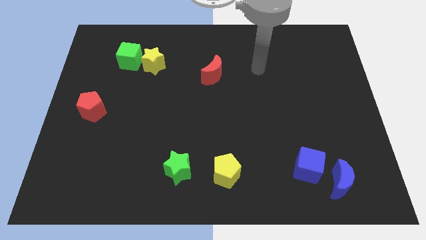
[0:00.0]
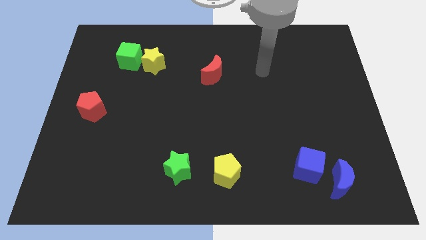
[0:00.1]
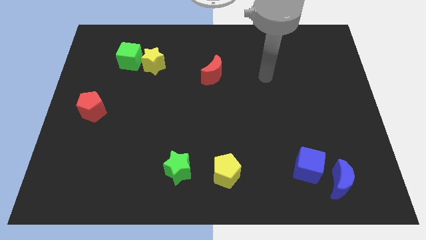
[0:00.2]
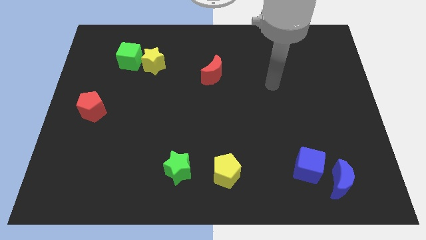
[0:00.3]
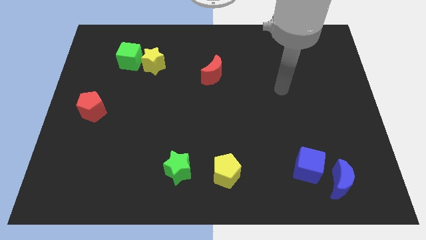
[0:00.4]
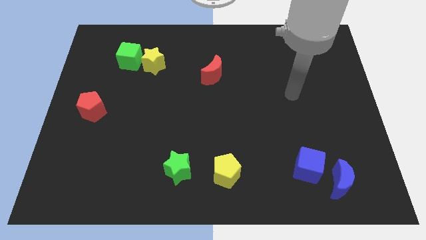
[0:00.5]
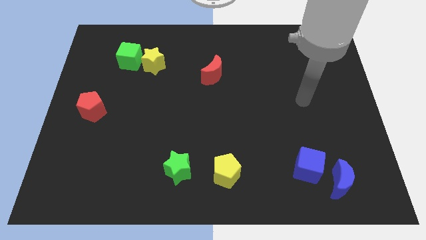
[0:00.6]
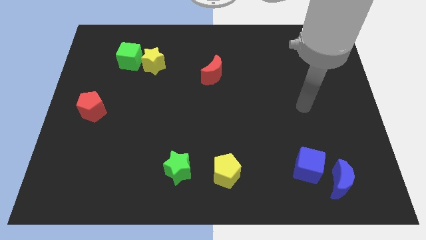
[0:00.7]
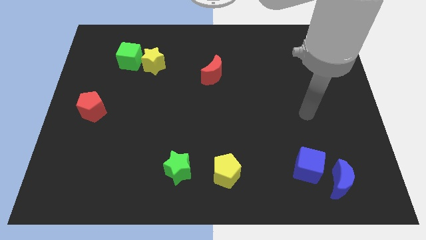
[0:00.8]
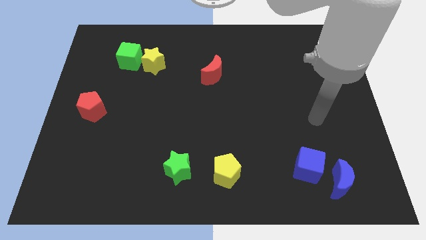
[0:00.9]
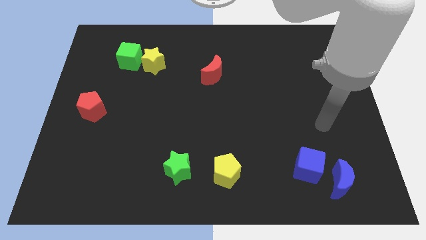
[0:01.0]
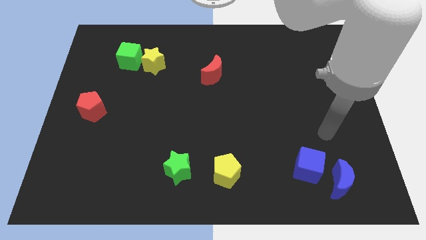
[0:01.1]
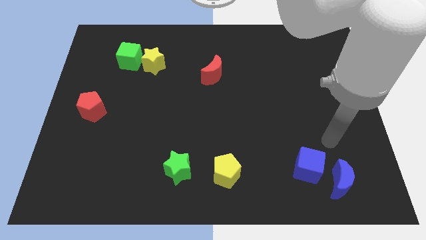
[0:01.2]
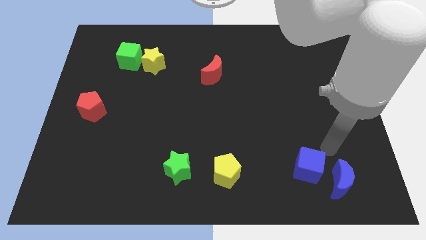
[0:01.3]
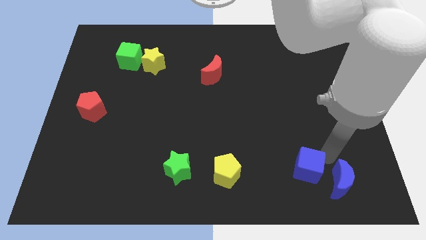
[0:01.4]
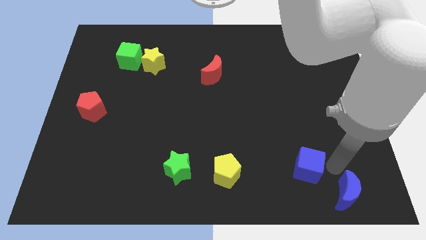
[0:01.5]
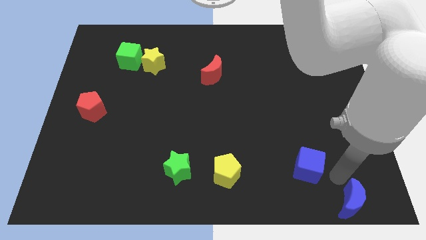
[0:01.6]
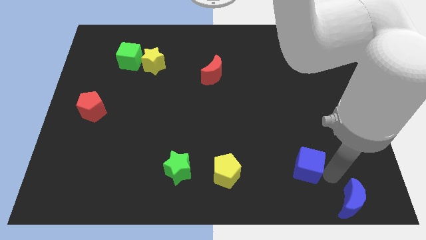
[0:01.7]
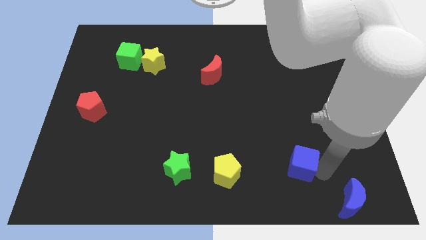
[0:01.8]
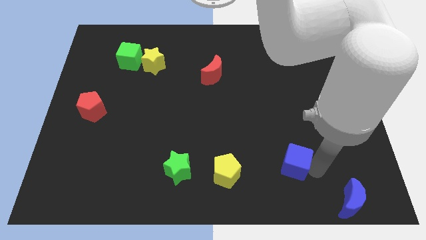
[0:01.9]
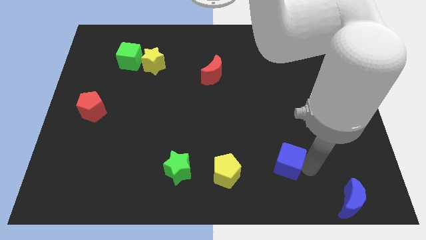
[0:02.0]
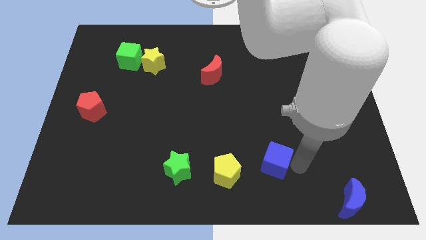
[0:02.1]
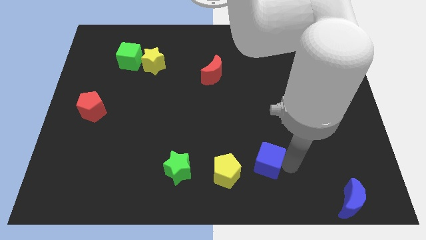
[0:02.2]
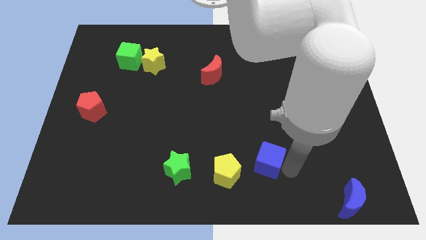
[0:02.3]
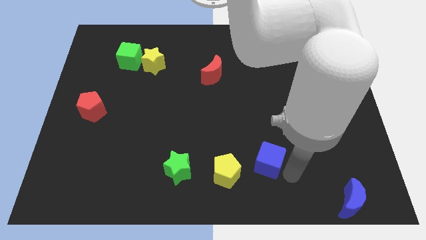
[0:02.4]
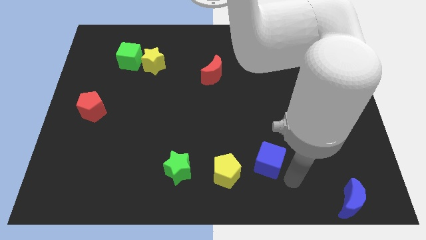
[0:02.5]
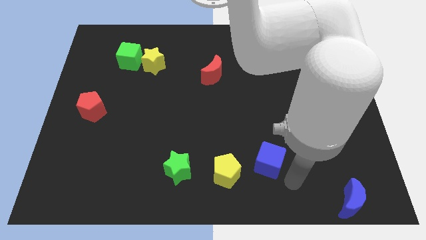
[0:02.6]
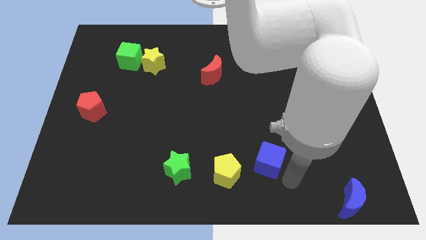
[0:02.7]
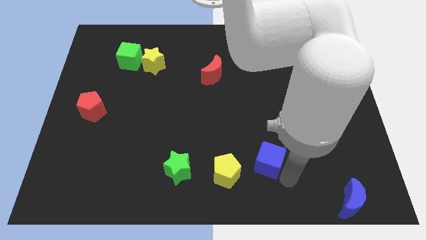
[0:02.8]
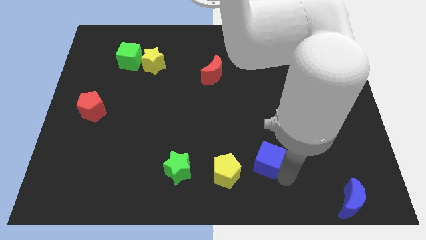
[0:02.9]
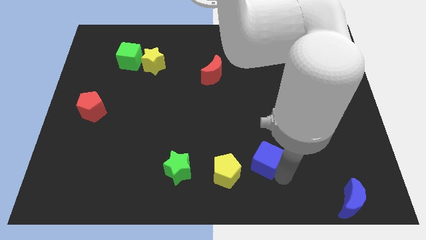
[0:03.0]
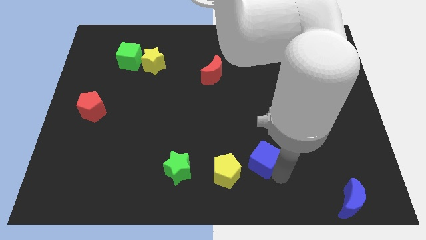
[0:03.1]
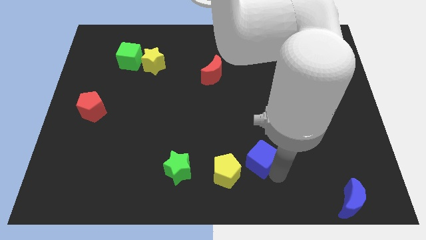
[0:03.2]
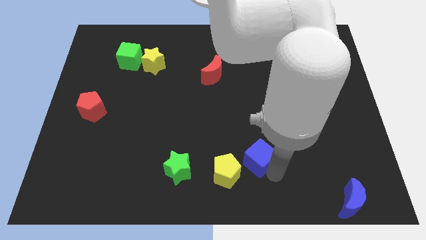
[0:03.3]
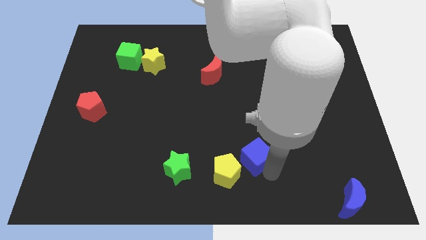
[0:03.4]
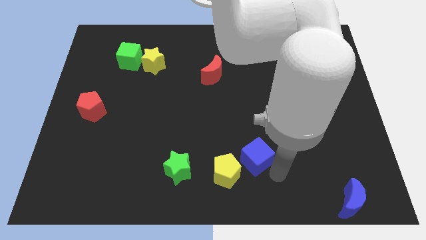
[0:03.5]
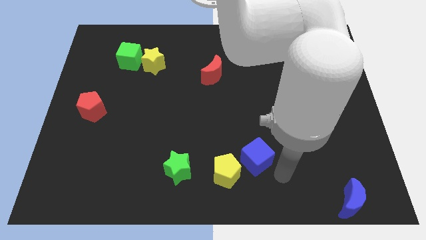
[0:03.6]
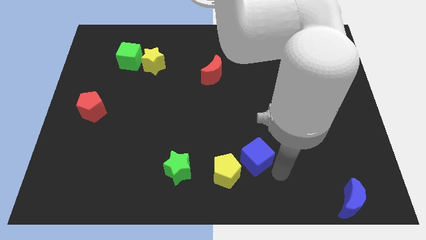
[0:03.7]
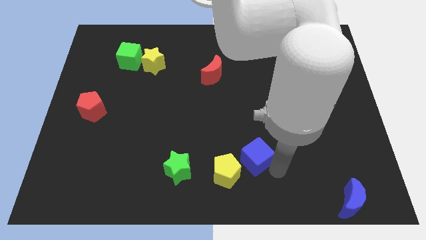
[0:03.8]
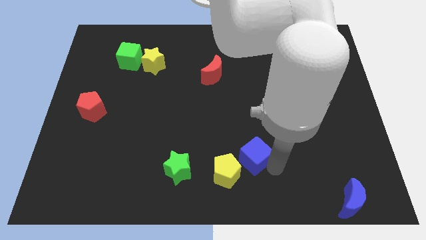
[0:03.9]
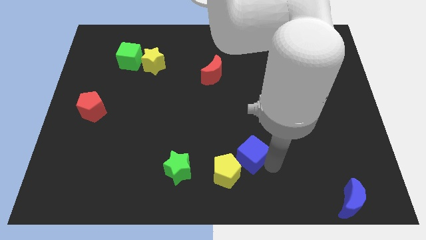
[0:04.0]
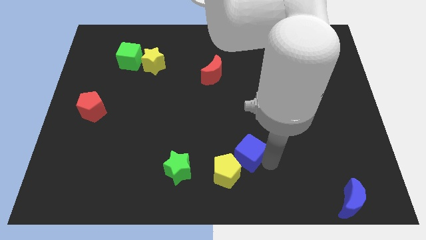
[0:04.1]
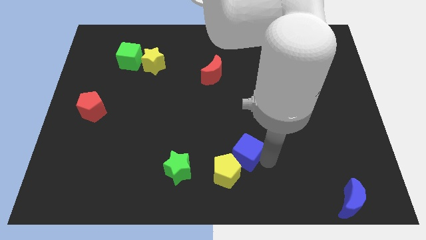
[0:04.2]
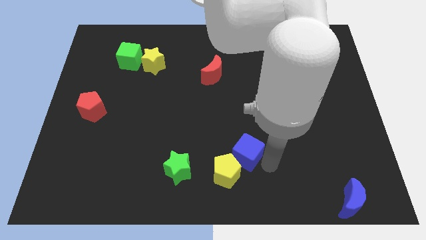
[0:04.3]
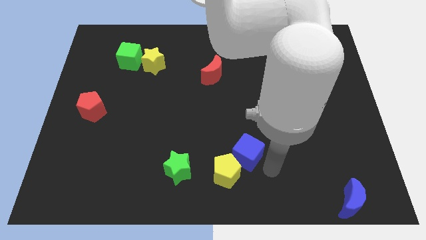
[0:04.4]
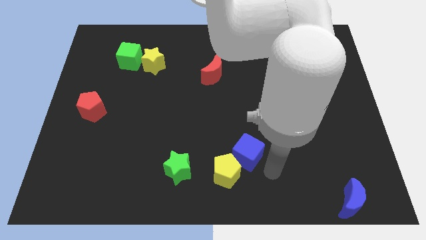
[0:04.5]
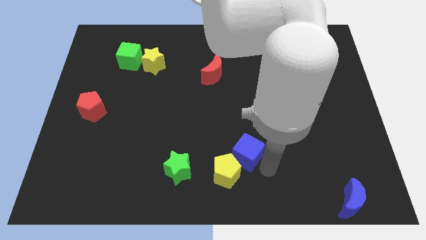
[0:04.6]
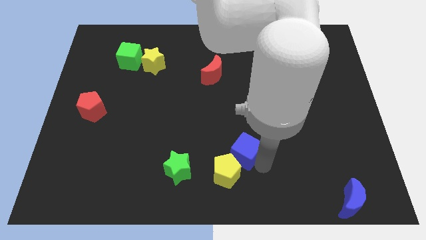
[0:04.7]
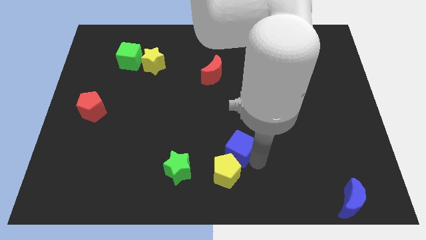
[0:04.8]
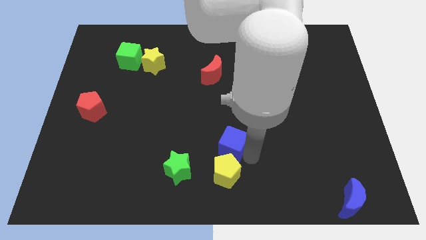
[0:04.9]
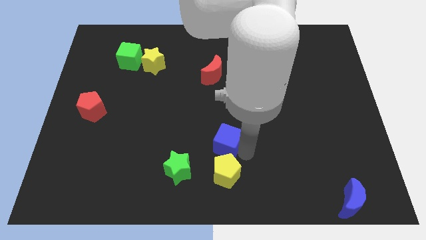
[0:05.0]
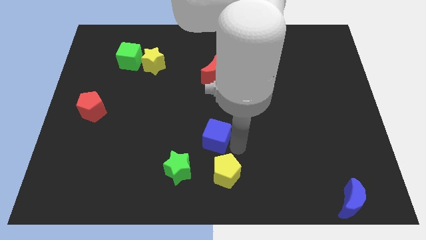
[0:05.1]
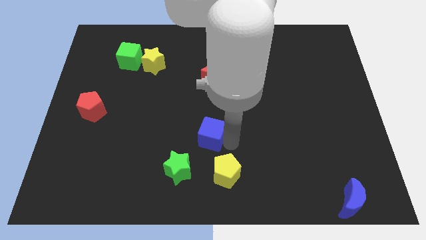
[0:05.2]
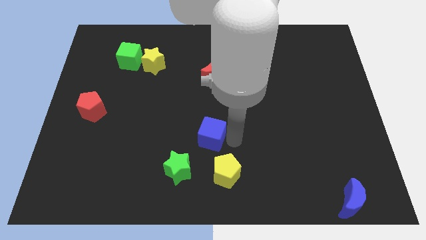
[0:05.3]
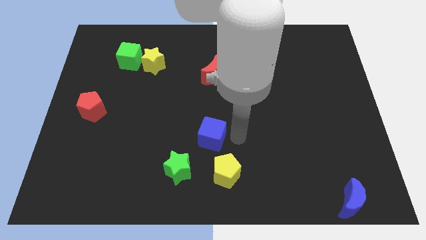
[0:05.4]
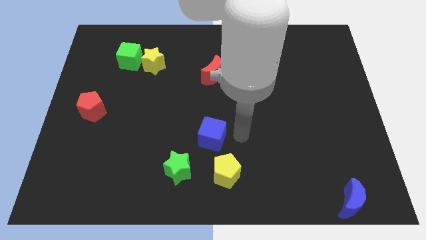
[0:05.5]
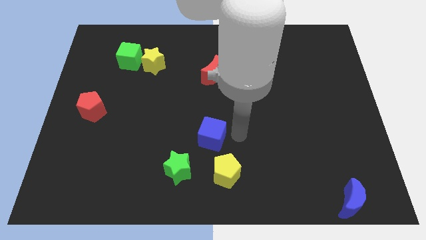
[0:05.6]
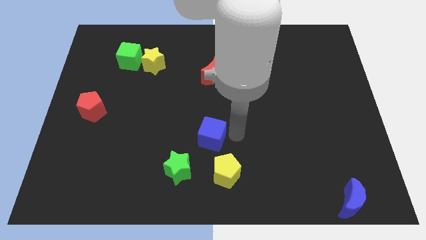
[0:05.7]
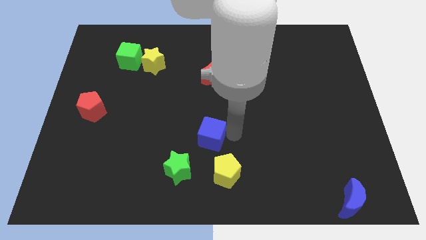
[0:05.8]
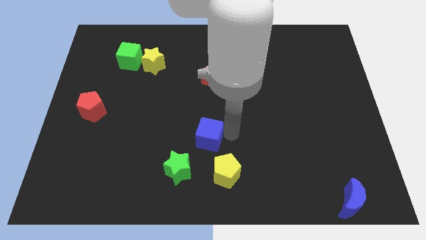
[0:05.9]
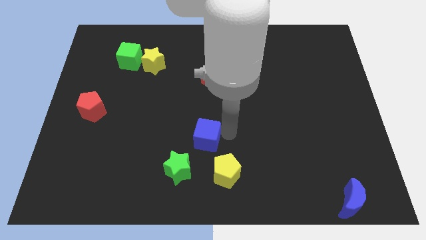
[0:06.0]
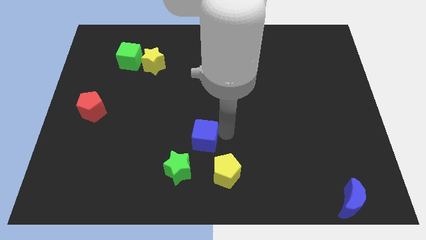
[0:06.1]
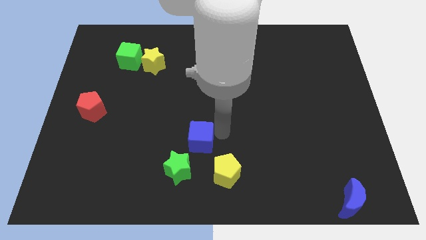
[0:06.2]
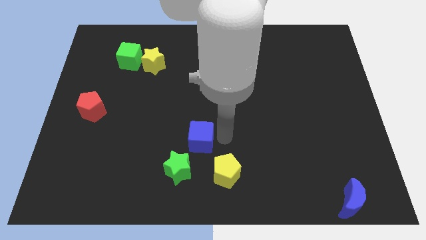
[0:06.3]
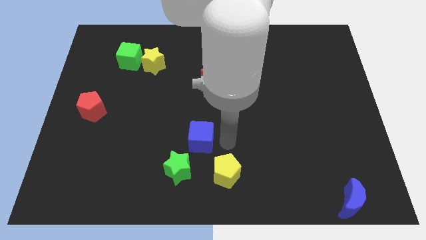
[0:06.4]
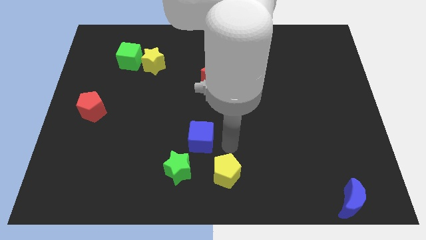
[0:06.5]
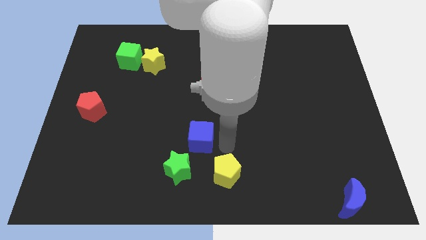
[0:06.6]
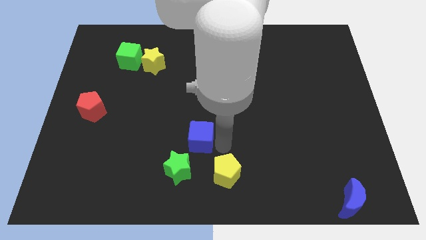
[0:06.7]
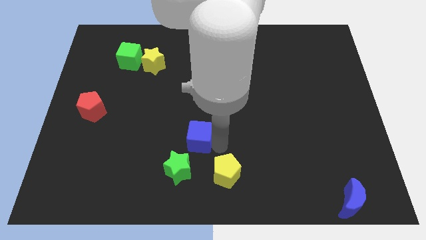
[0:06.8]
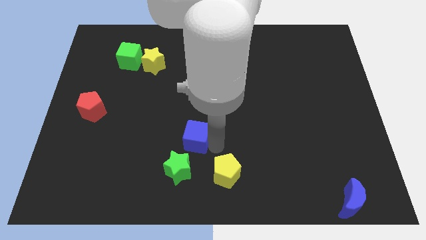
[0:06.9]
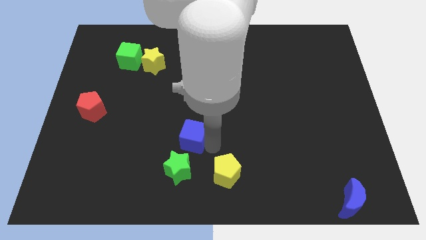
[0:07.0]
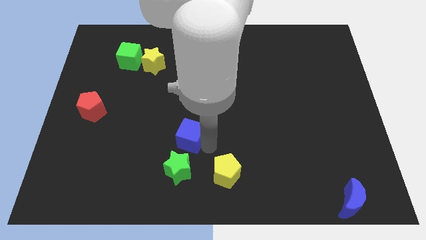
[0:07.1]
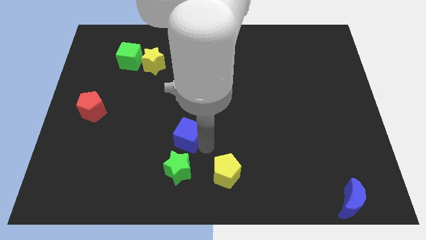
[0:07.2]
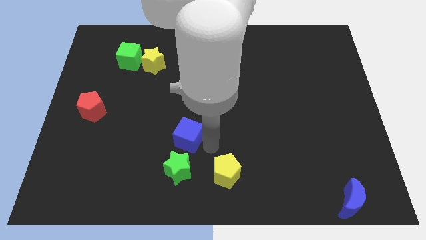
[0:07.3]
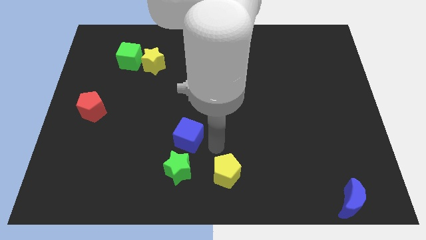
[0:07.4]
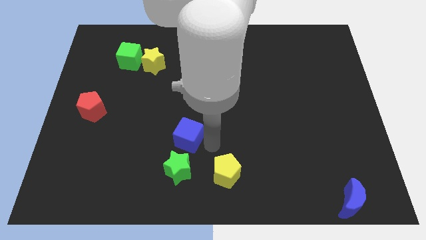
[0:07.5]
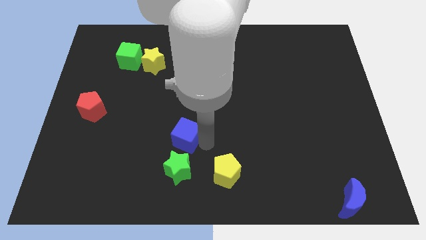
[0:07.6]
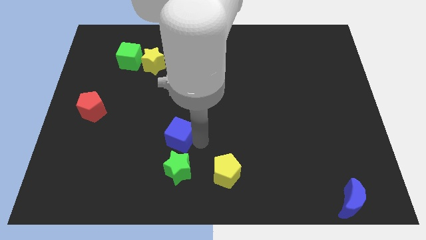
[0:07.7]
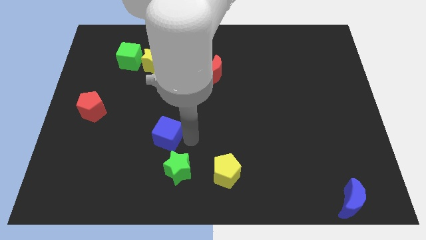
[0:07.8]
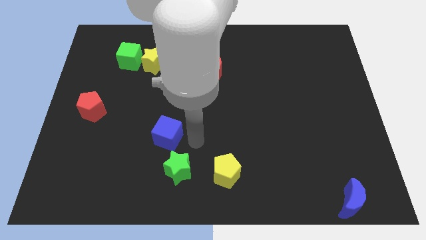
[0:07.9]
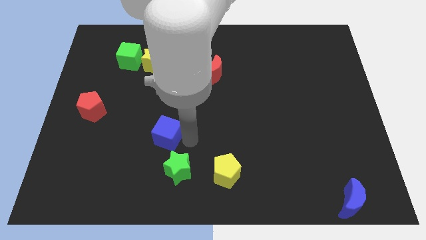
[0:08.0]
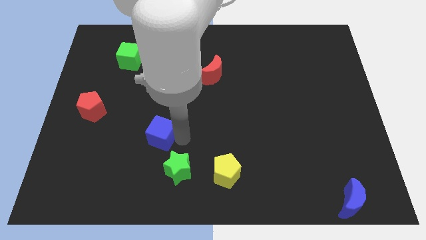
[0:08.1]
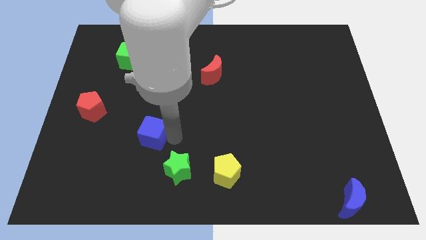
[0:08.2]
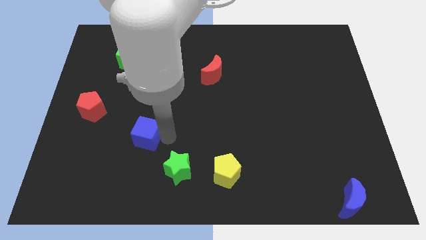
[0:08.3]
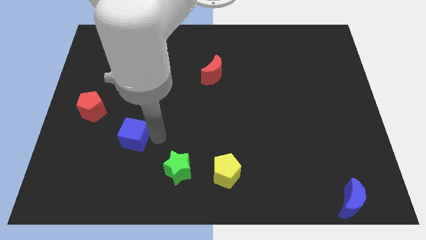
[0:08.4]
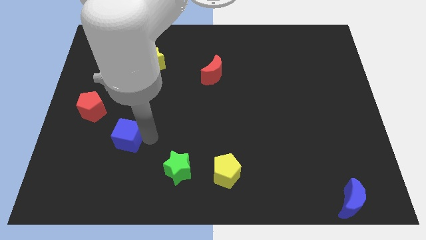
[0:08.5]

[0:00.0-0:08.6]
put the blue cube to the bottom right side of the red pentagon
